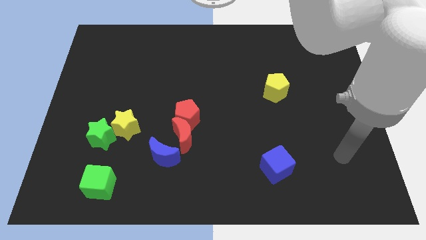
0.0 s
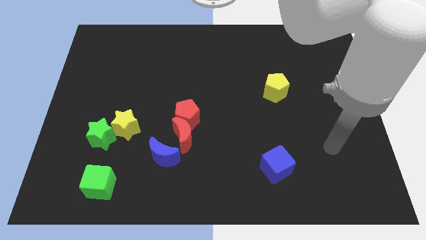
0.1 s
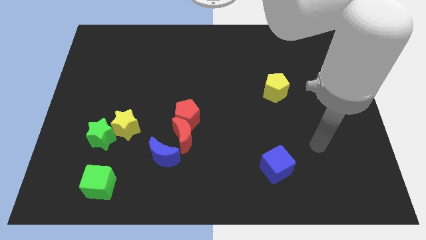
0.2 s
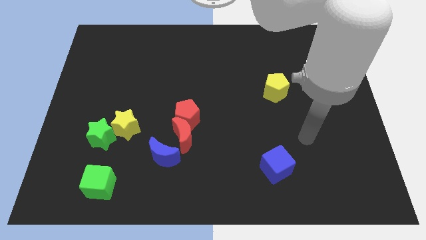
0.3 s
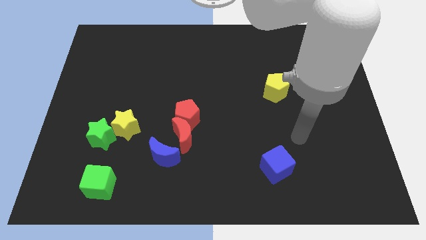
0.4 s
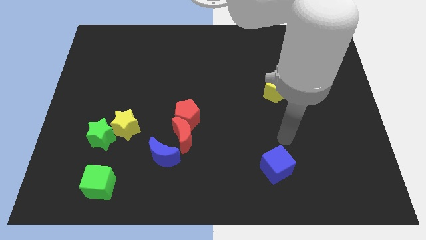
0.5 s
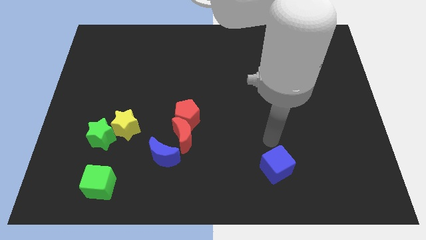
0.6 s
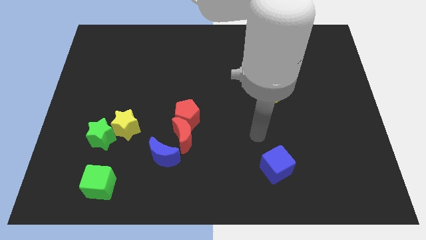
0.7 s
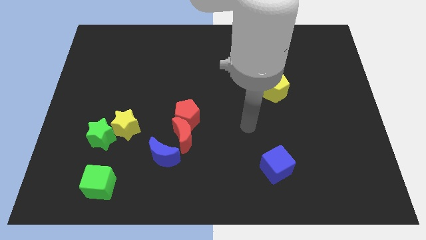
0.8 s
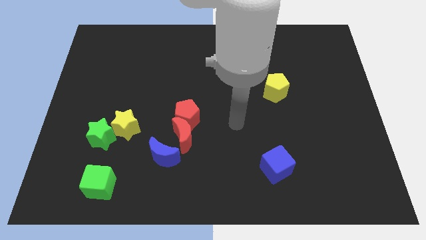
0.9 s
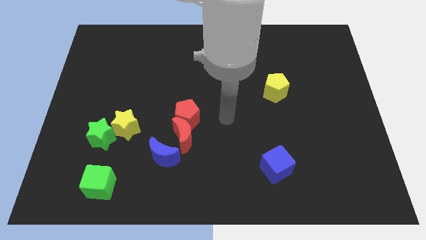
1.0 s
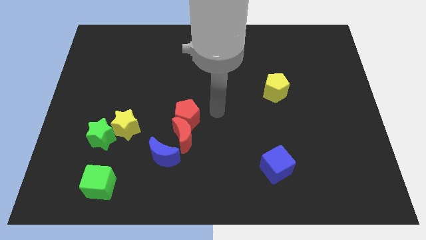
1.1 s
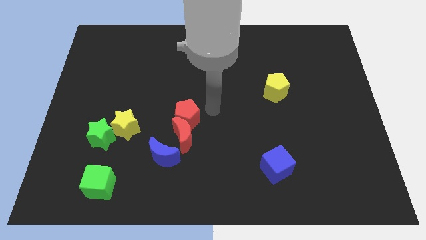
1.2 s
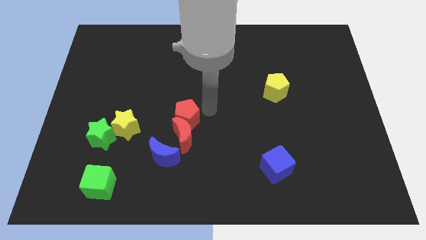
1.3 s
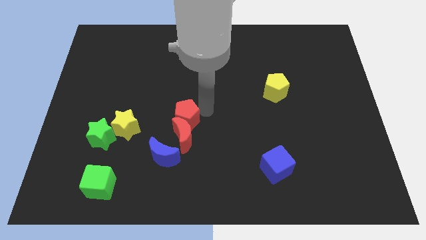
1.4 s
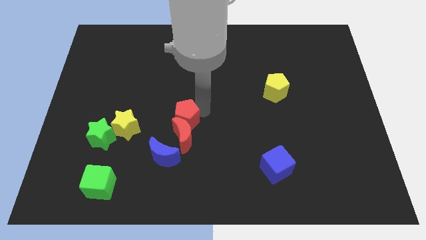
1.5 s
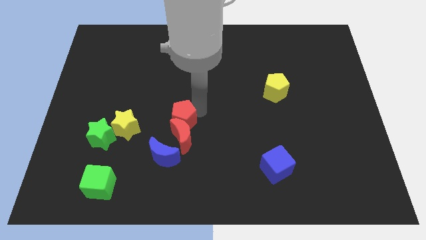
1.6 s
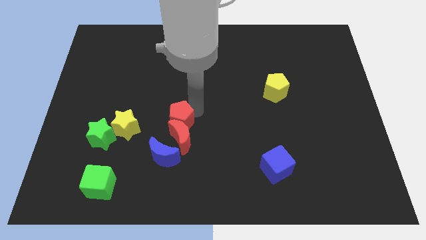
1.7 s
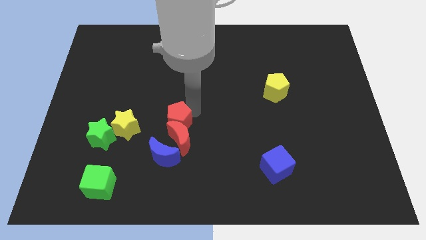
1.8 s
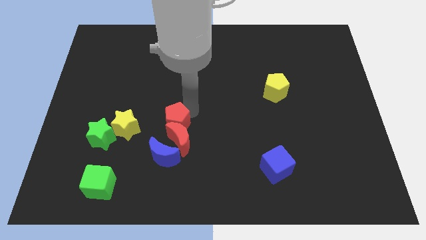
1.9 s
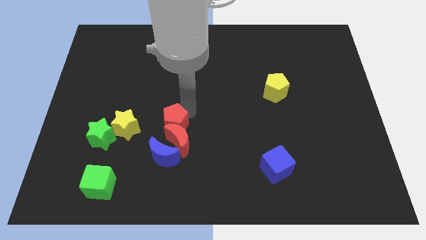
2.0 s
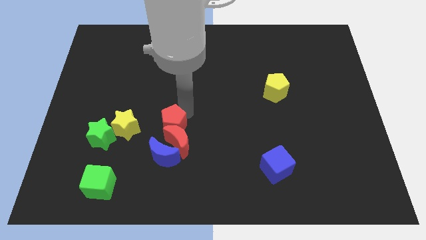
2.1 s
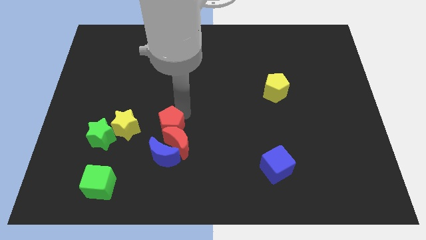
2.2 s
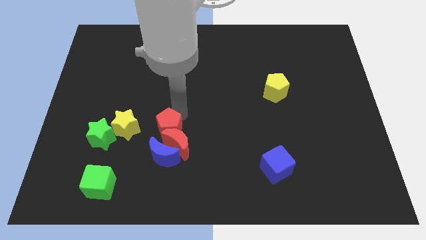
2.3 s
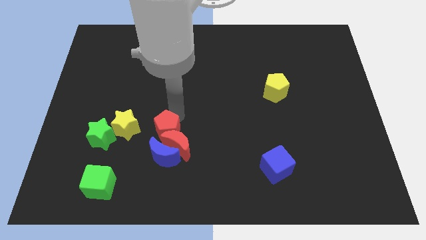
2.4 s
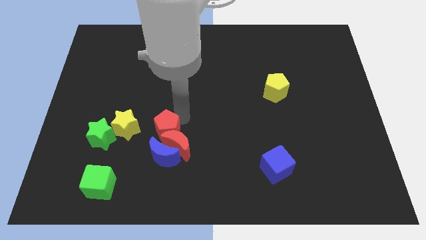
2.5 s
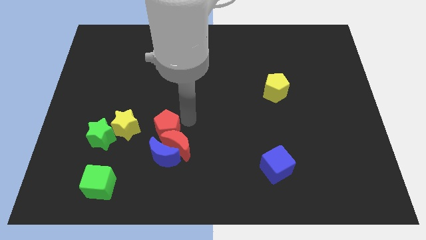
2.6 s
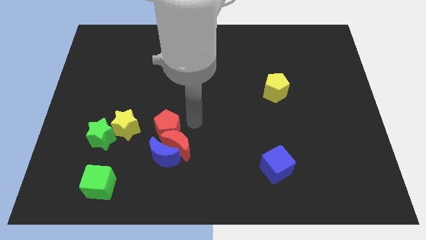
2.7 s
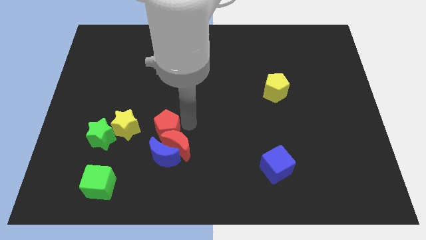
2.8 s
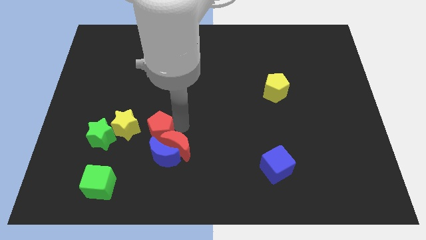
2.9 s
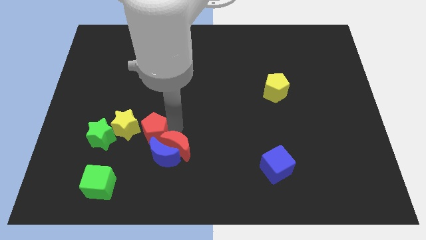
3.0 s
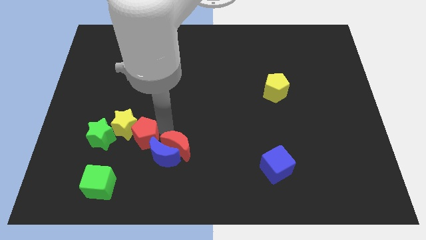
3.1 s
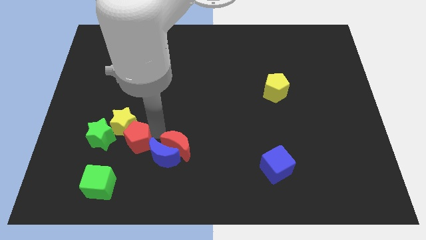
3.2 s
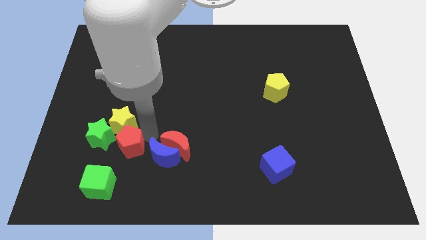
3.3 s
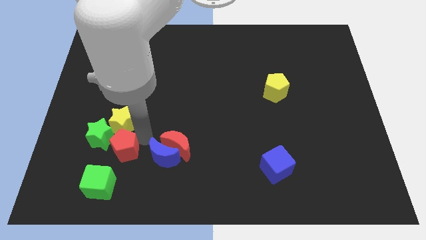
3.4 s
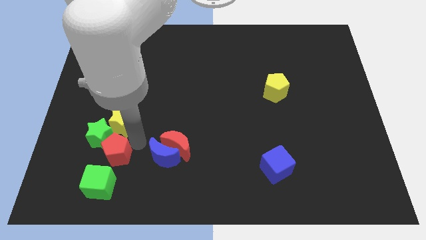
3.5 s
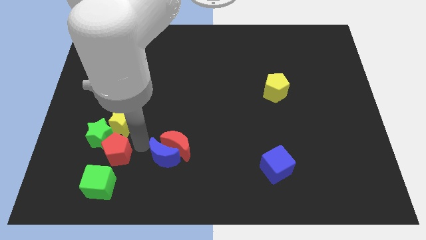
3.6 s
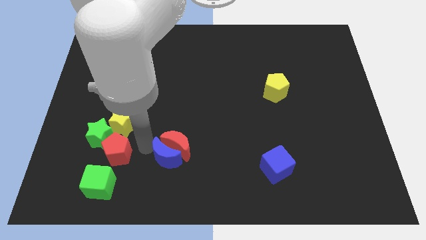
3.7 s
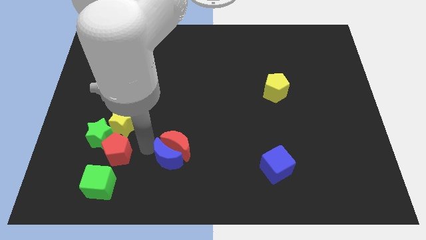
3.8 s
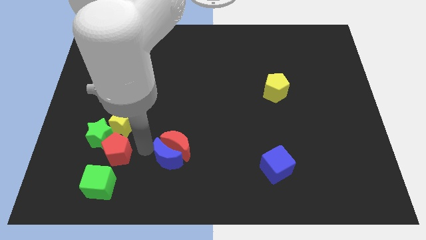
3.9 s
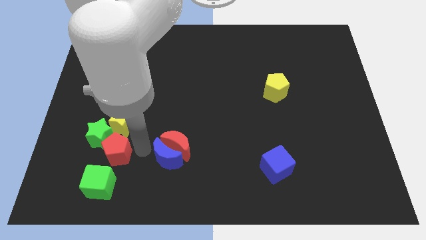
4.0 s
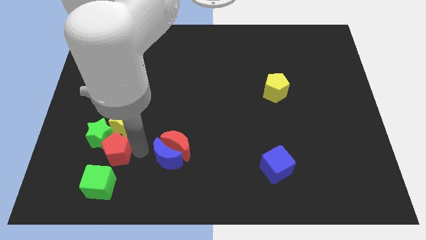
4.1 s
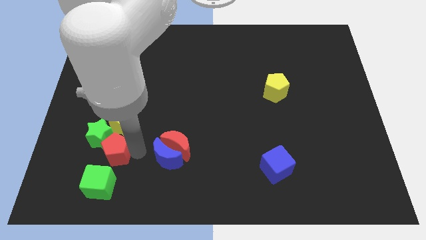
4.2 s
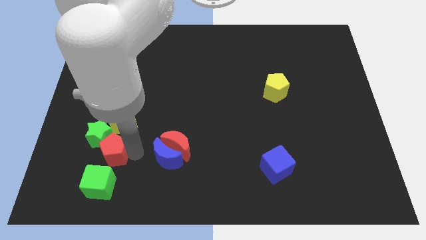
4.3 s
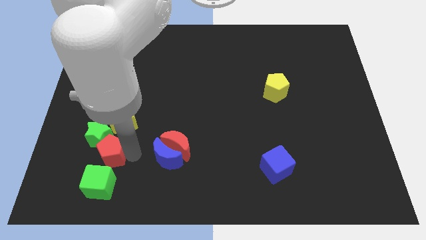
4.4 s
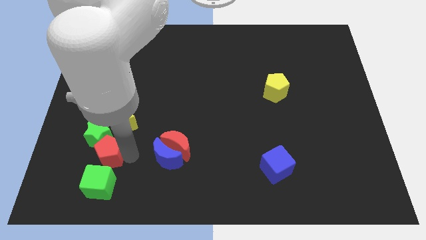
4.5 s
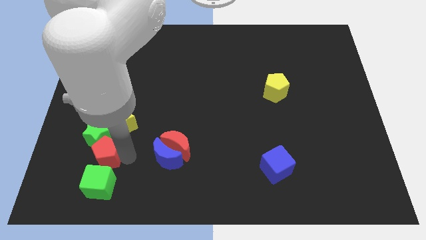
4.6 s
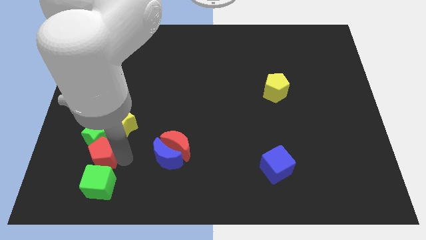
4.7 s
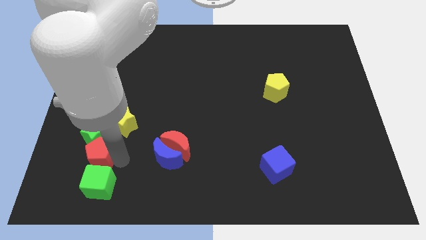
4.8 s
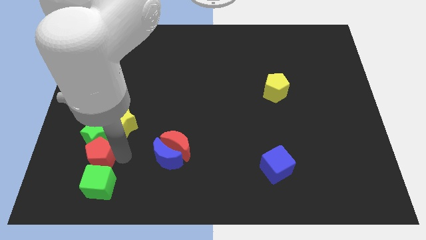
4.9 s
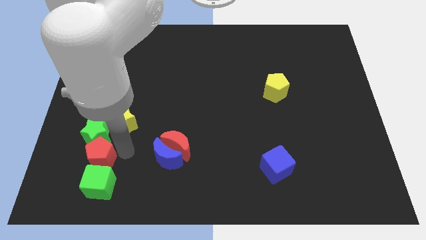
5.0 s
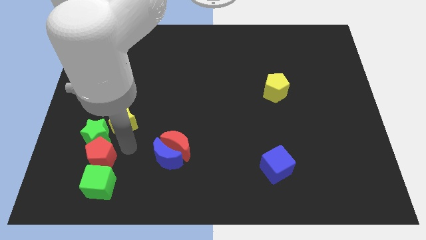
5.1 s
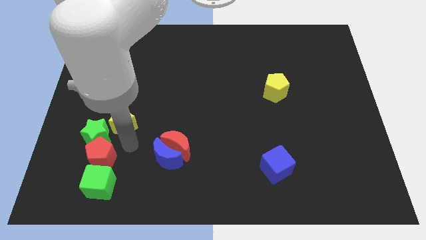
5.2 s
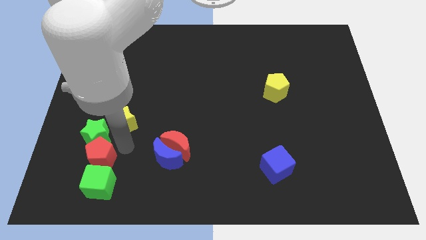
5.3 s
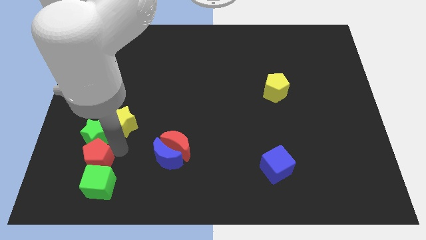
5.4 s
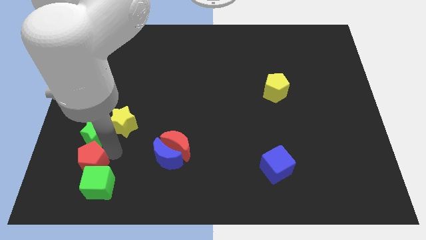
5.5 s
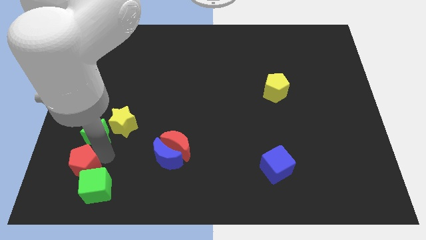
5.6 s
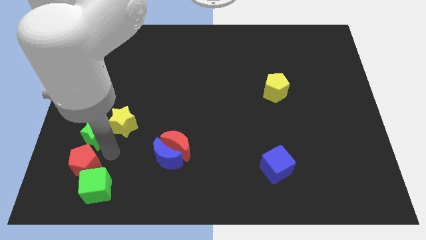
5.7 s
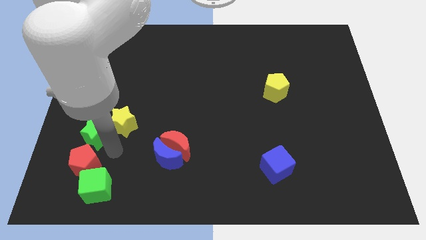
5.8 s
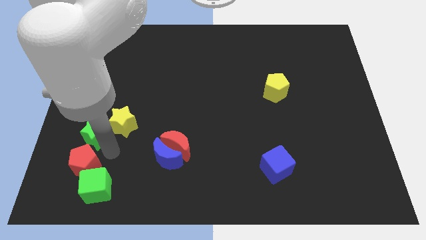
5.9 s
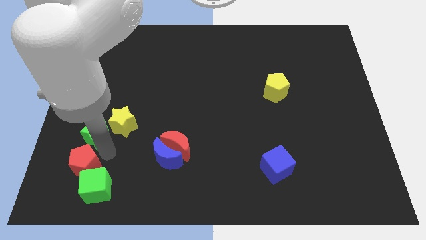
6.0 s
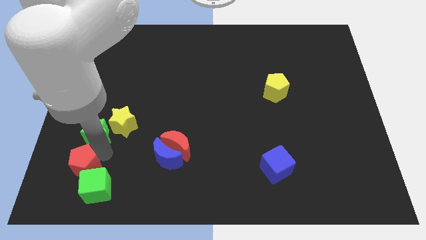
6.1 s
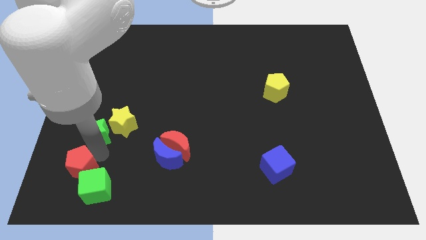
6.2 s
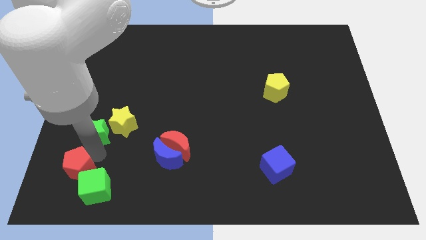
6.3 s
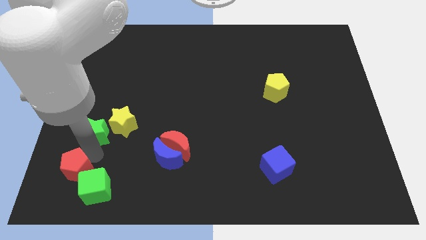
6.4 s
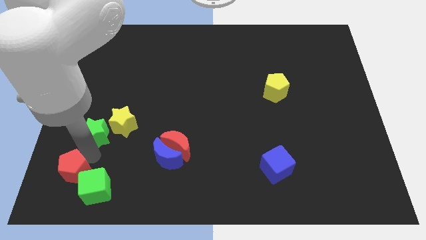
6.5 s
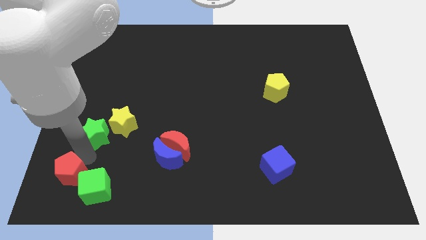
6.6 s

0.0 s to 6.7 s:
move the red pentagon to the lower left corner
